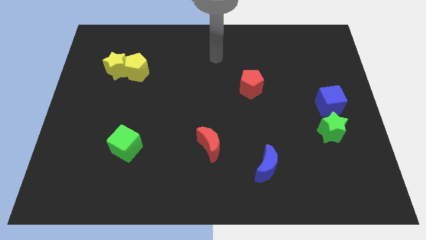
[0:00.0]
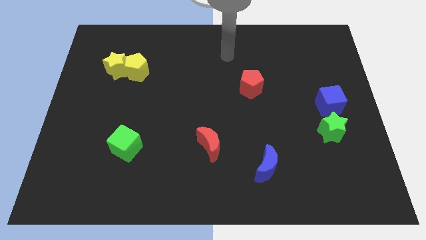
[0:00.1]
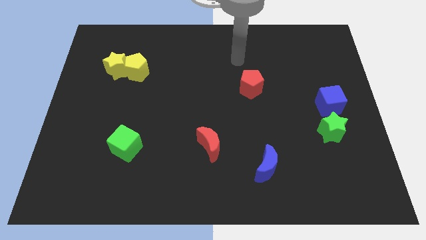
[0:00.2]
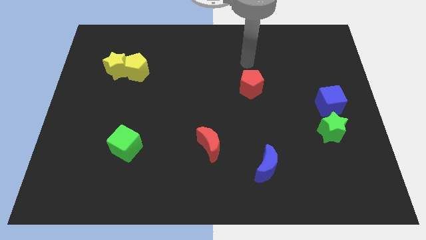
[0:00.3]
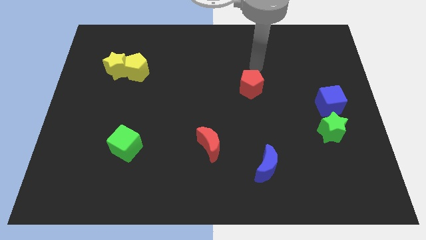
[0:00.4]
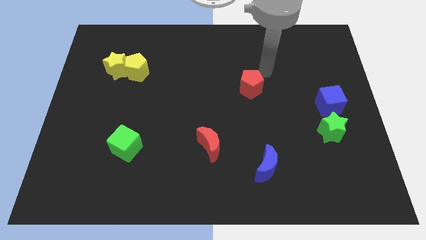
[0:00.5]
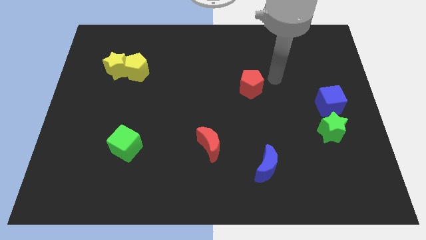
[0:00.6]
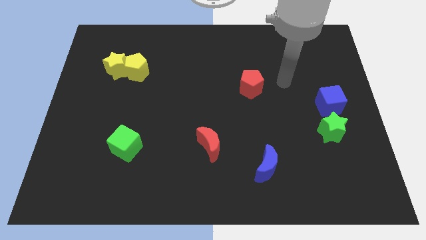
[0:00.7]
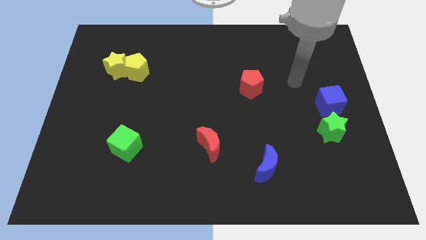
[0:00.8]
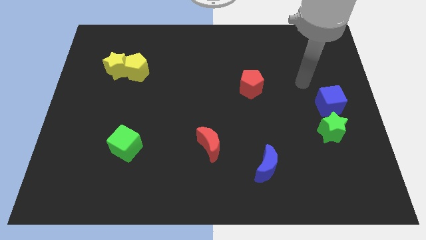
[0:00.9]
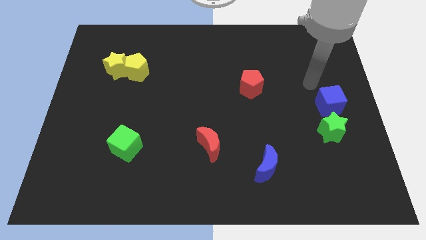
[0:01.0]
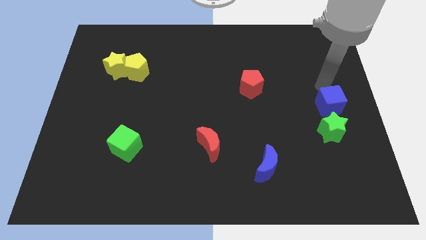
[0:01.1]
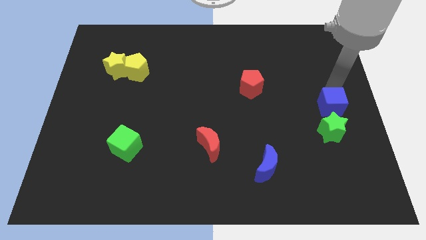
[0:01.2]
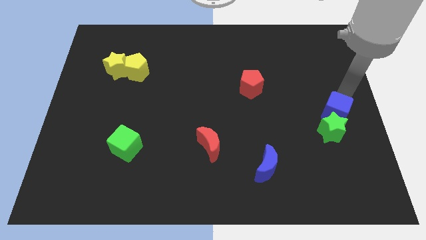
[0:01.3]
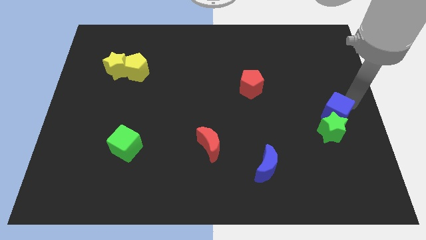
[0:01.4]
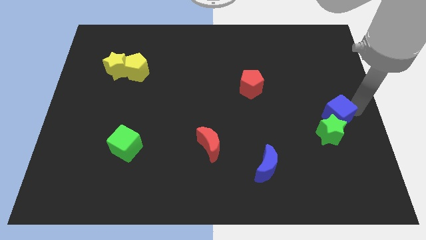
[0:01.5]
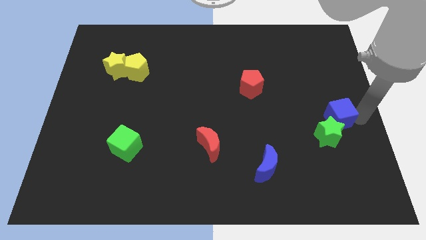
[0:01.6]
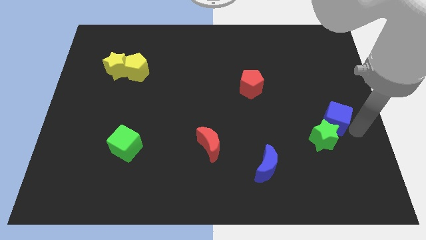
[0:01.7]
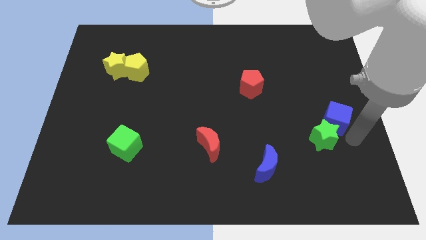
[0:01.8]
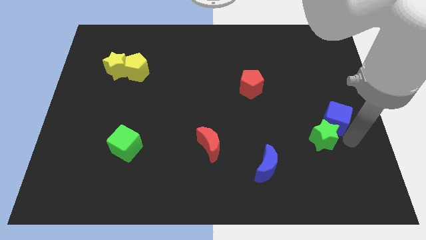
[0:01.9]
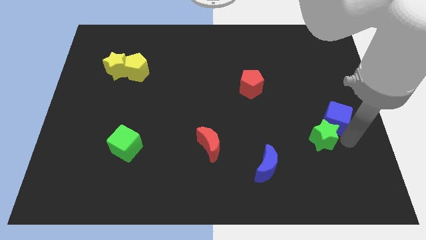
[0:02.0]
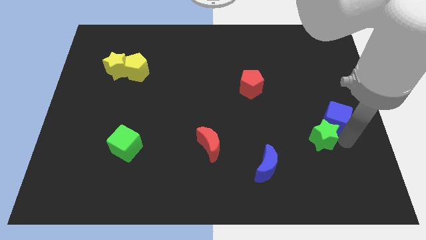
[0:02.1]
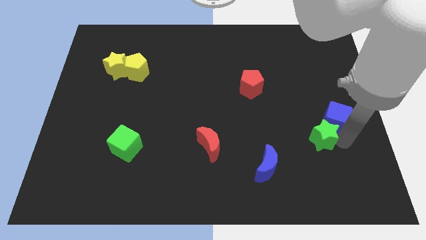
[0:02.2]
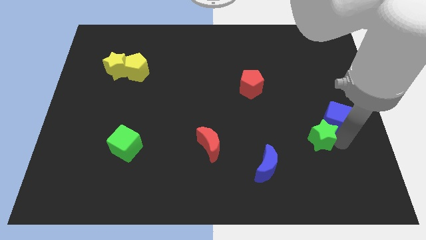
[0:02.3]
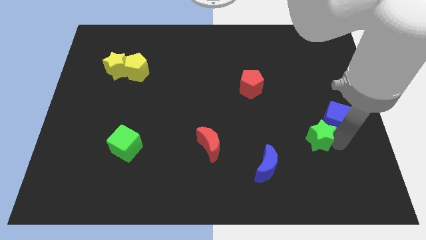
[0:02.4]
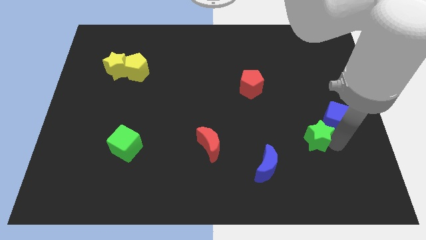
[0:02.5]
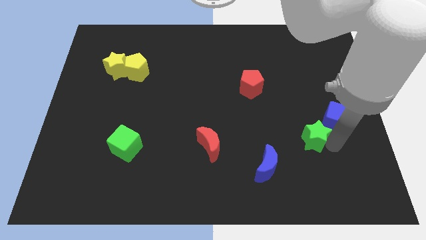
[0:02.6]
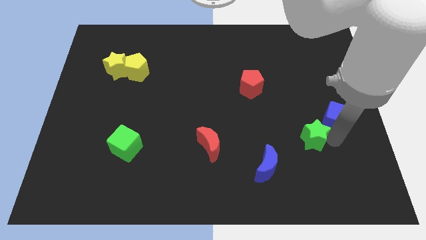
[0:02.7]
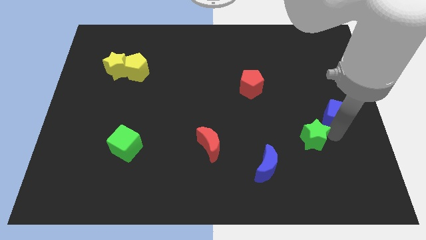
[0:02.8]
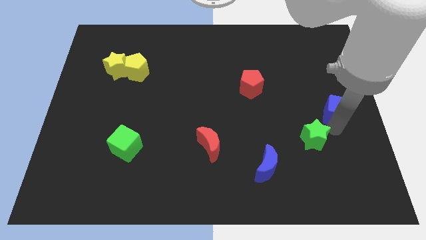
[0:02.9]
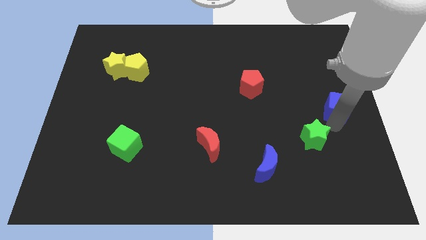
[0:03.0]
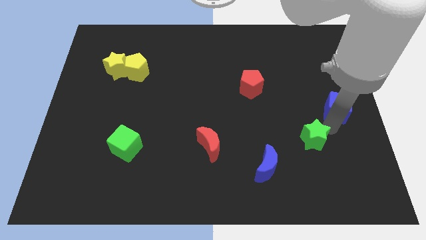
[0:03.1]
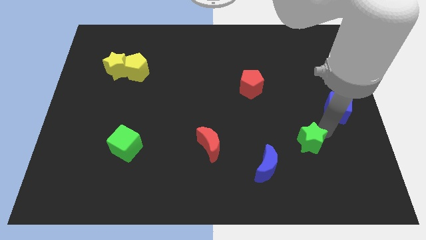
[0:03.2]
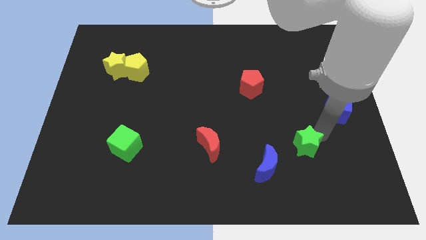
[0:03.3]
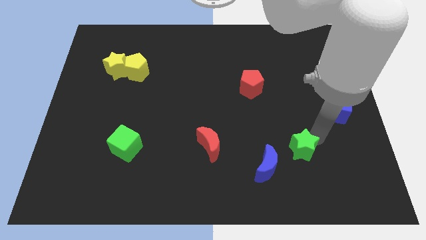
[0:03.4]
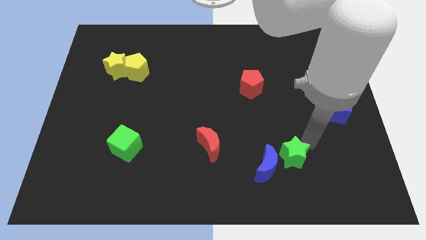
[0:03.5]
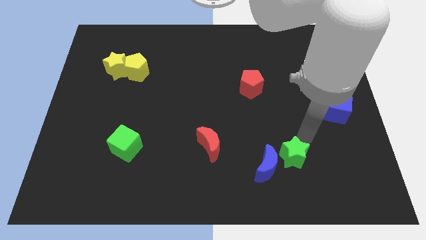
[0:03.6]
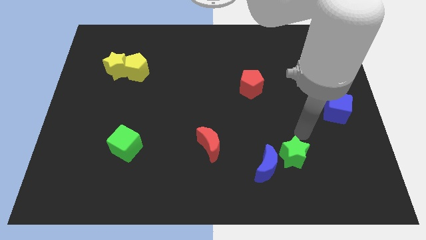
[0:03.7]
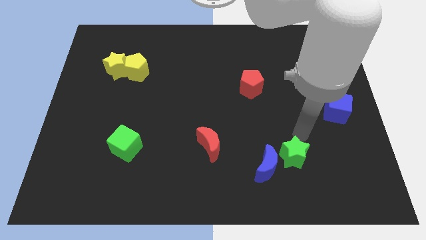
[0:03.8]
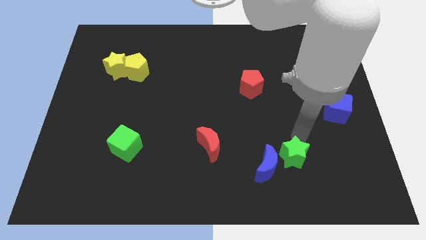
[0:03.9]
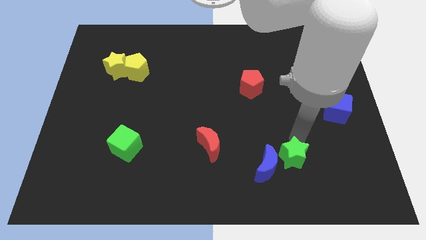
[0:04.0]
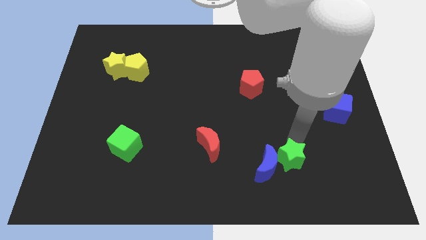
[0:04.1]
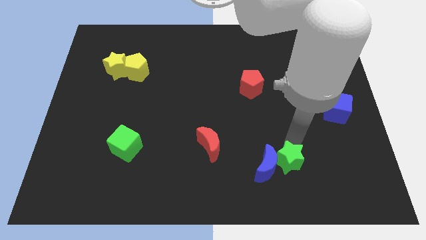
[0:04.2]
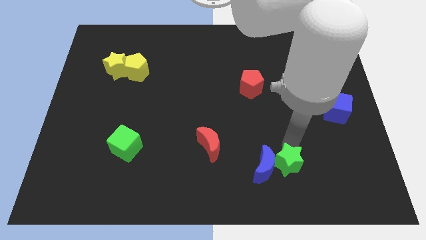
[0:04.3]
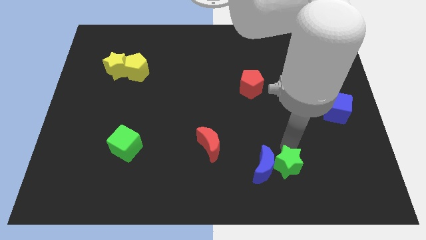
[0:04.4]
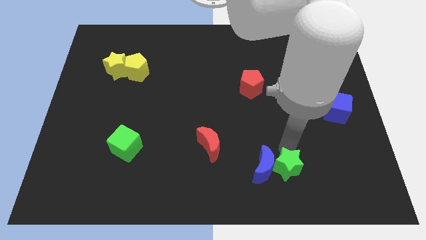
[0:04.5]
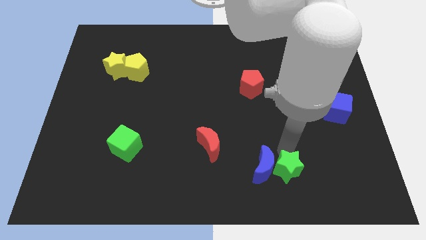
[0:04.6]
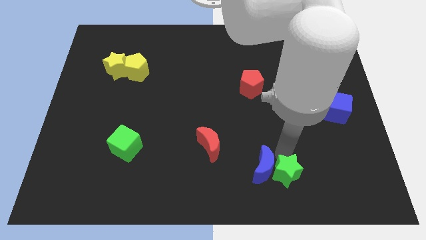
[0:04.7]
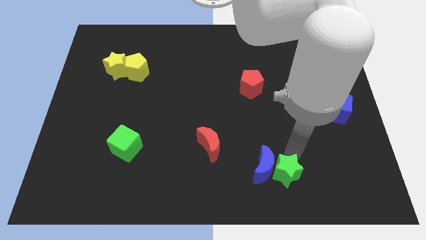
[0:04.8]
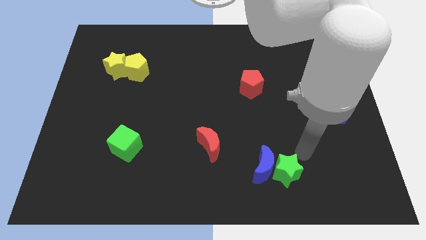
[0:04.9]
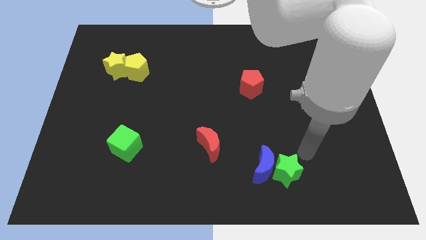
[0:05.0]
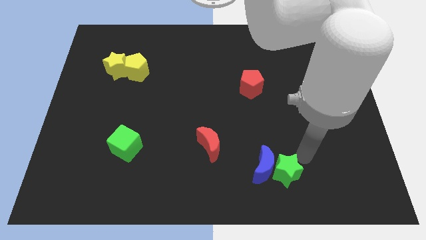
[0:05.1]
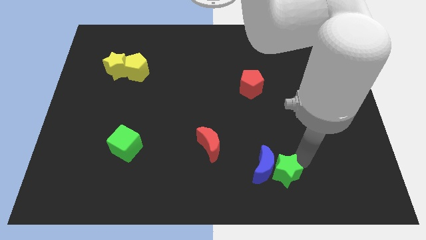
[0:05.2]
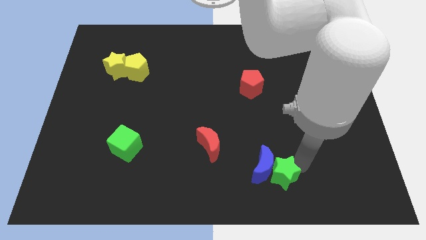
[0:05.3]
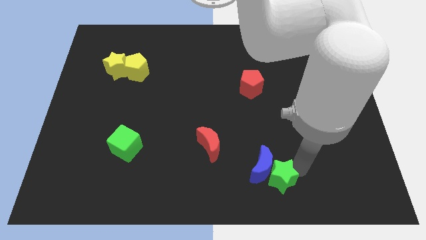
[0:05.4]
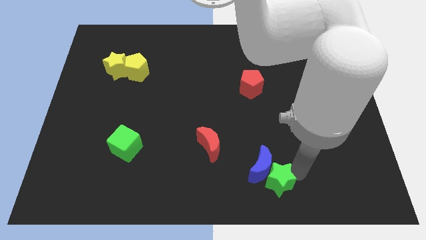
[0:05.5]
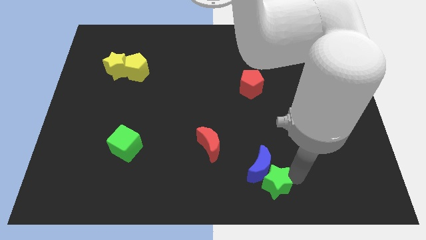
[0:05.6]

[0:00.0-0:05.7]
move the green star to the bottom side

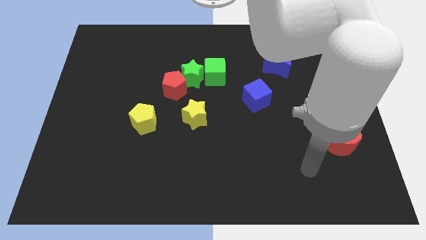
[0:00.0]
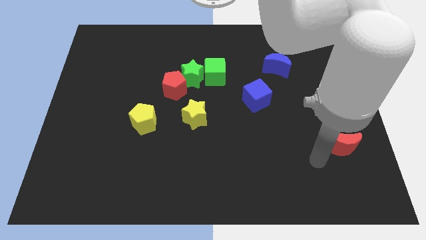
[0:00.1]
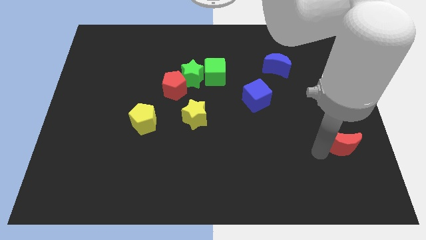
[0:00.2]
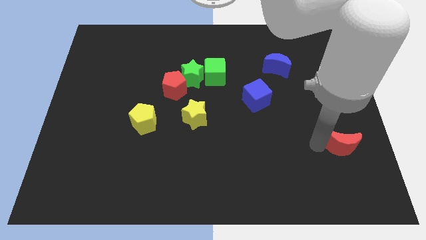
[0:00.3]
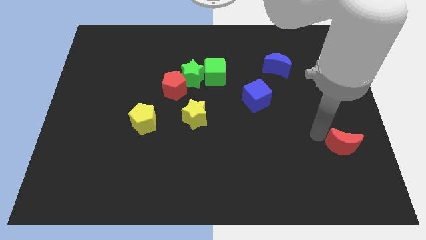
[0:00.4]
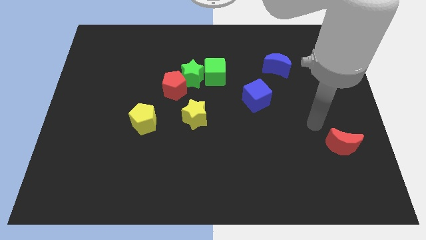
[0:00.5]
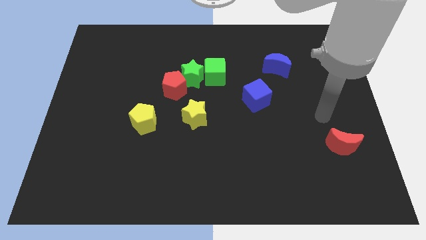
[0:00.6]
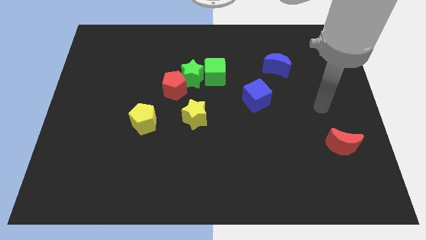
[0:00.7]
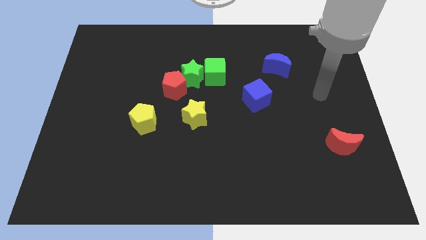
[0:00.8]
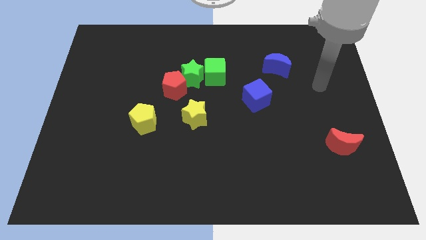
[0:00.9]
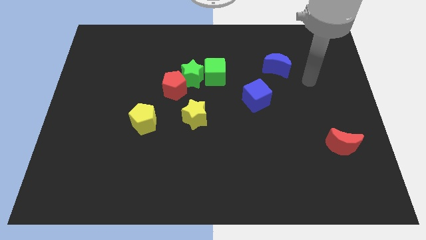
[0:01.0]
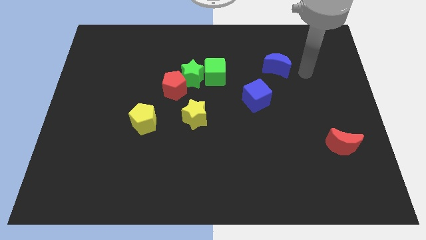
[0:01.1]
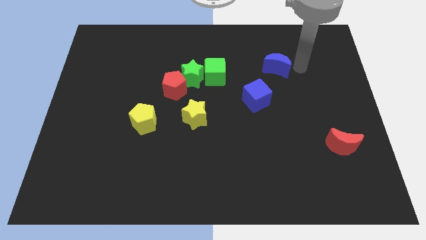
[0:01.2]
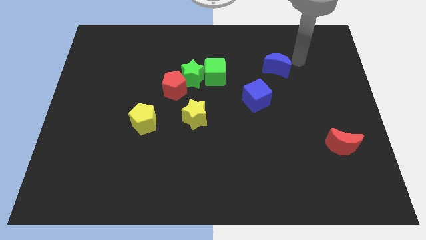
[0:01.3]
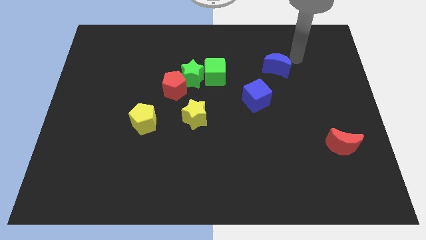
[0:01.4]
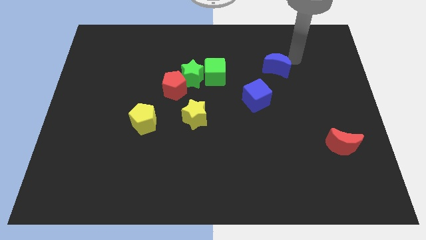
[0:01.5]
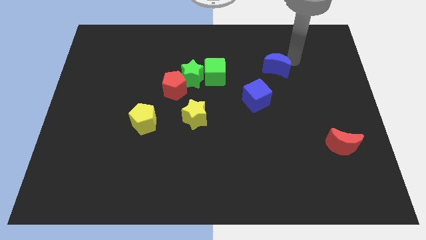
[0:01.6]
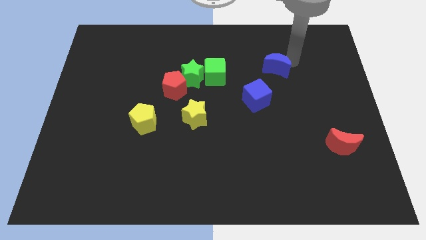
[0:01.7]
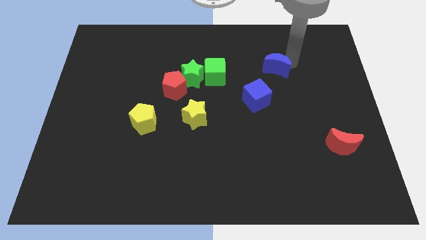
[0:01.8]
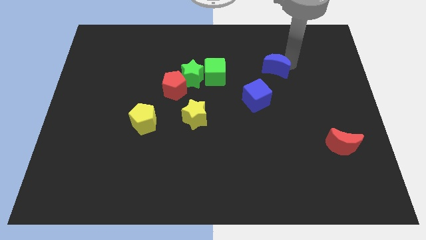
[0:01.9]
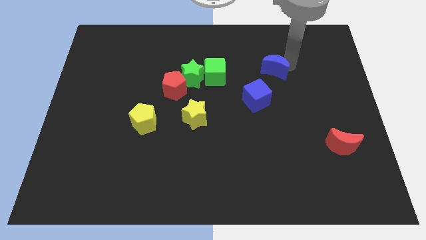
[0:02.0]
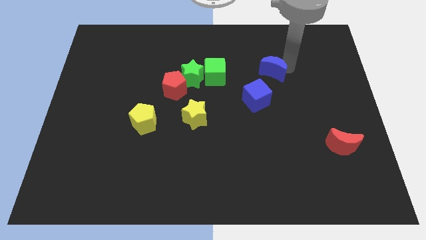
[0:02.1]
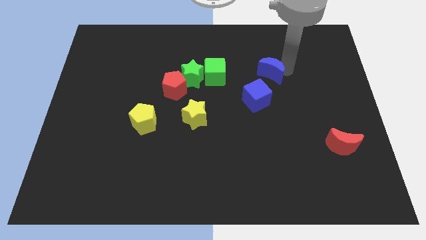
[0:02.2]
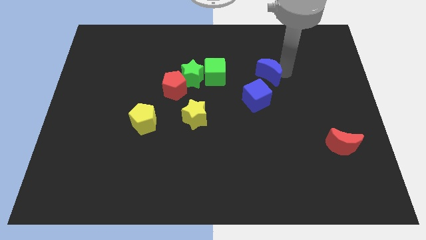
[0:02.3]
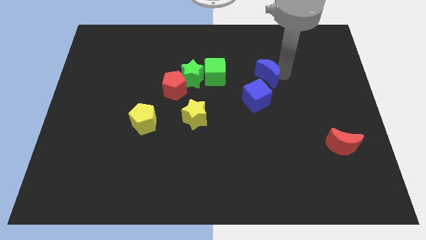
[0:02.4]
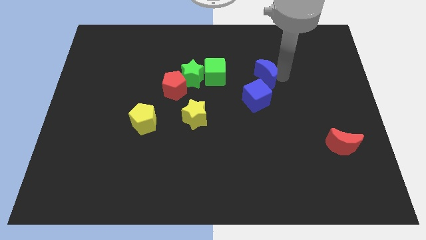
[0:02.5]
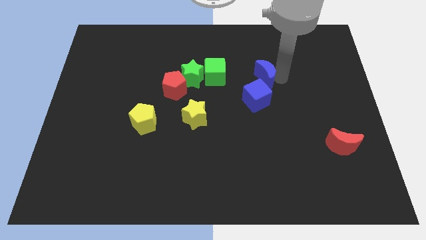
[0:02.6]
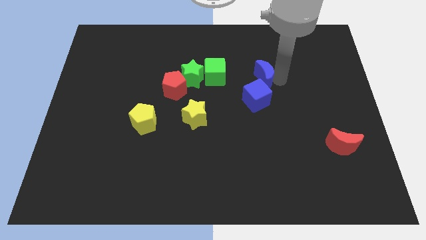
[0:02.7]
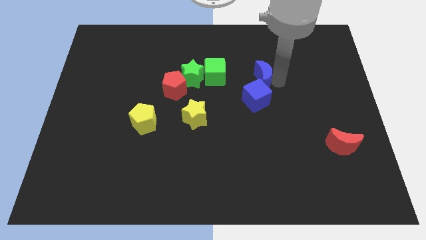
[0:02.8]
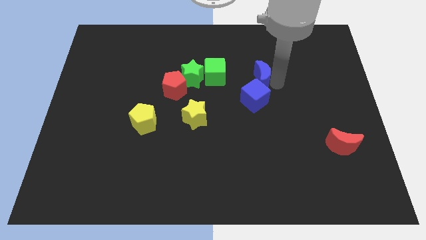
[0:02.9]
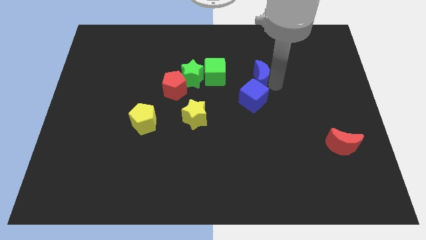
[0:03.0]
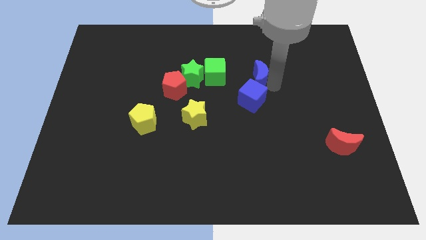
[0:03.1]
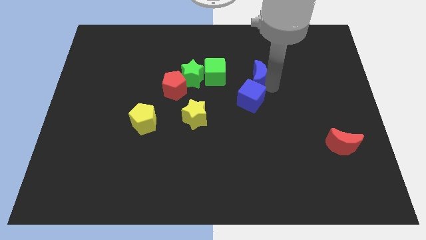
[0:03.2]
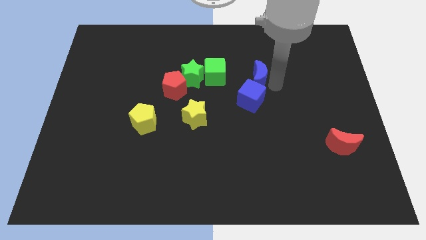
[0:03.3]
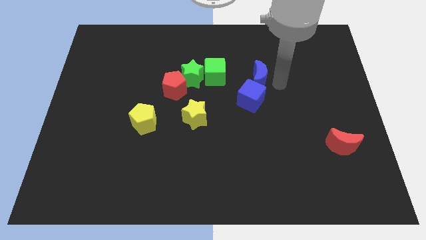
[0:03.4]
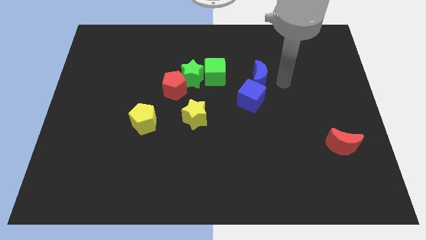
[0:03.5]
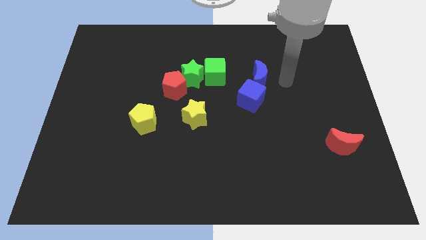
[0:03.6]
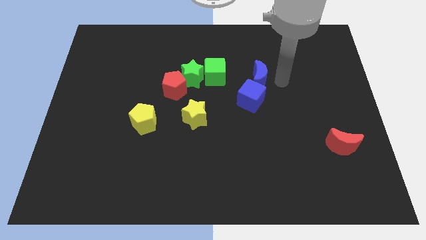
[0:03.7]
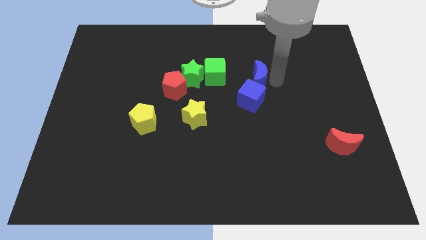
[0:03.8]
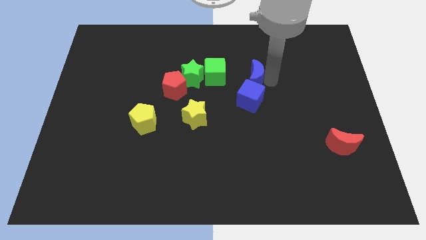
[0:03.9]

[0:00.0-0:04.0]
slide the blue moon to the middle
